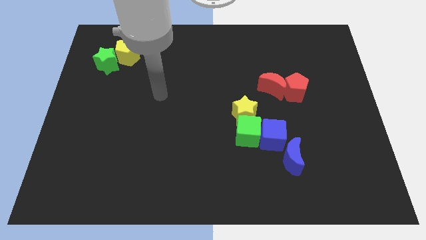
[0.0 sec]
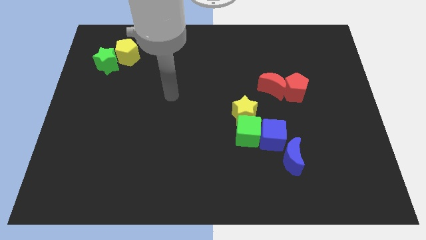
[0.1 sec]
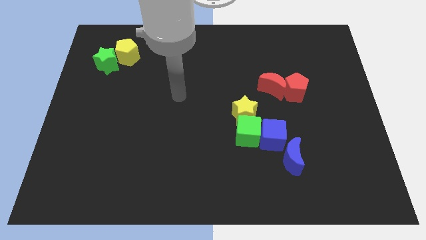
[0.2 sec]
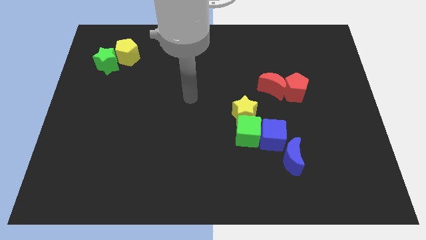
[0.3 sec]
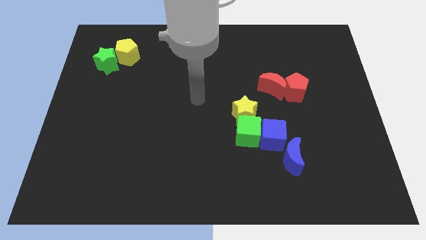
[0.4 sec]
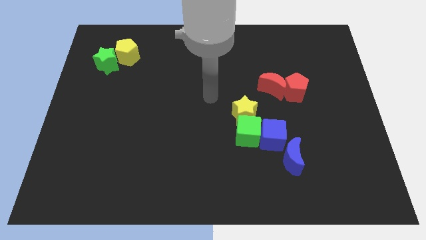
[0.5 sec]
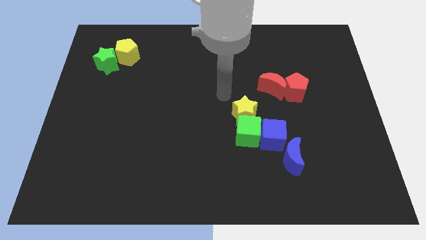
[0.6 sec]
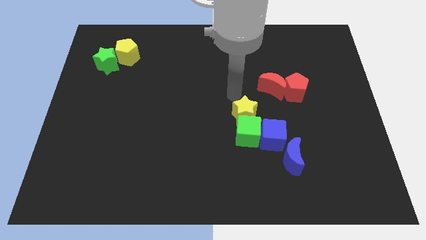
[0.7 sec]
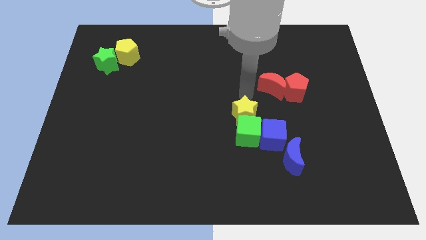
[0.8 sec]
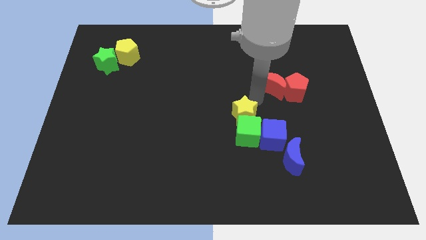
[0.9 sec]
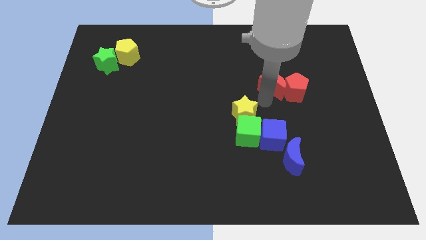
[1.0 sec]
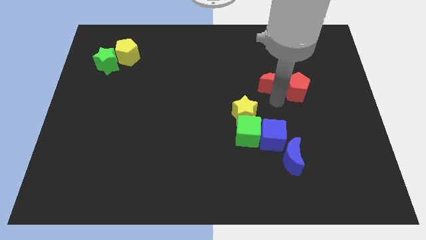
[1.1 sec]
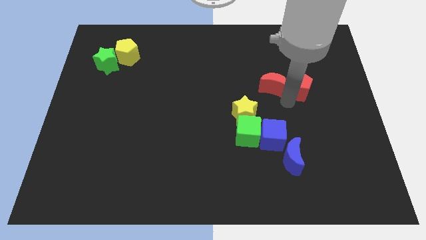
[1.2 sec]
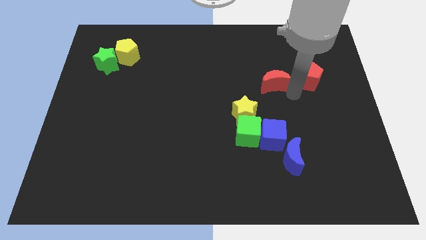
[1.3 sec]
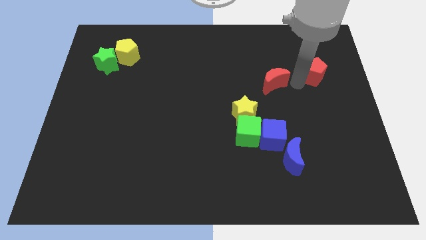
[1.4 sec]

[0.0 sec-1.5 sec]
pull the red moon apart from the red pentagon

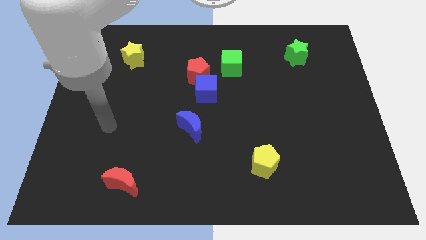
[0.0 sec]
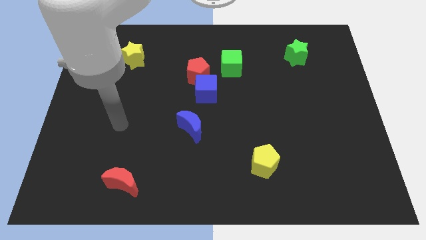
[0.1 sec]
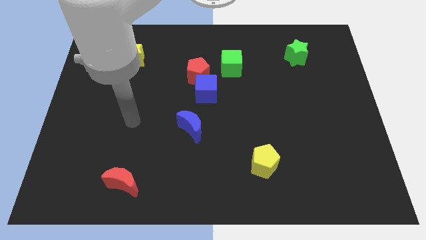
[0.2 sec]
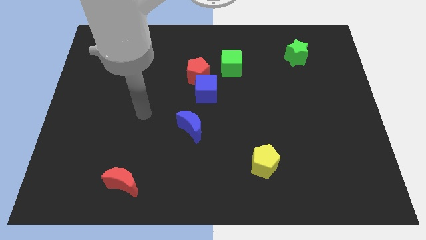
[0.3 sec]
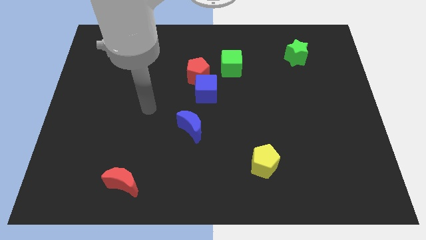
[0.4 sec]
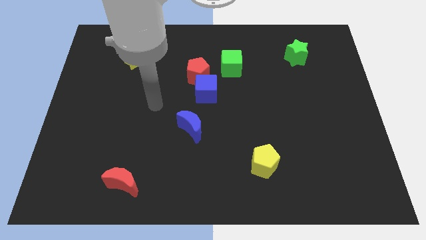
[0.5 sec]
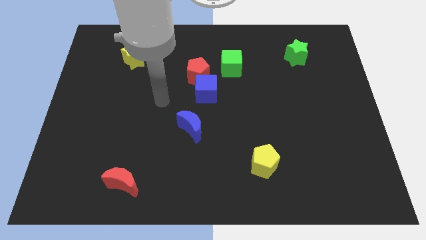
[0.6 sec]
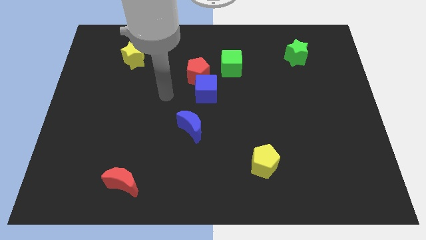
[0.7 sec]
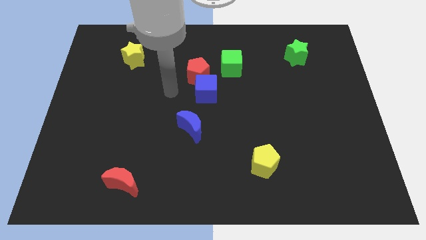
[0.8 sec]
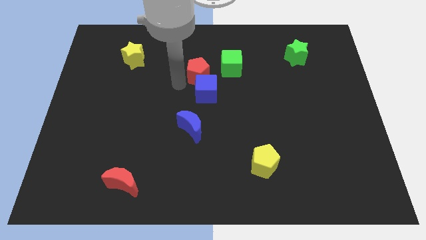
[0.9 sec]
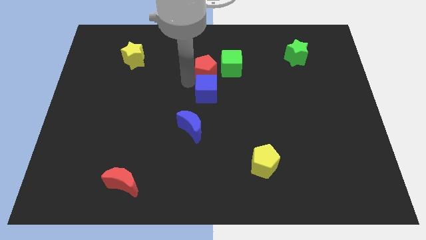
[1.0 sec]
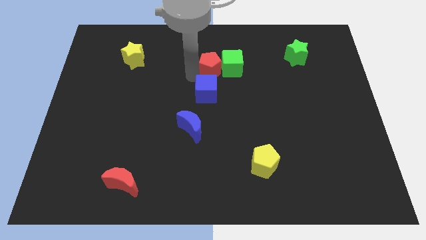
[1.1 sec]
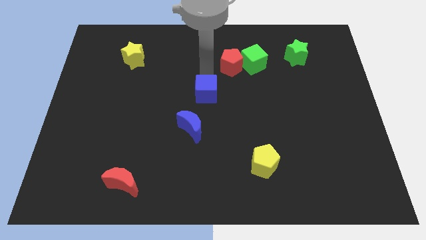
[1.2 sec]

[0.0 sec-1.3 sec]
move the blue cube away from the red pentagon

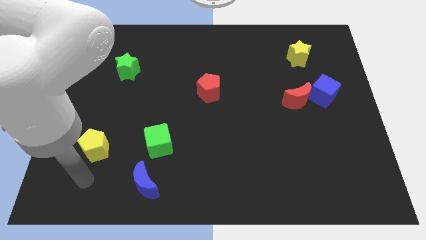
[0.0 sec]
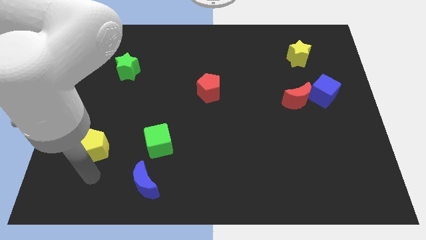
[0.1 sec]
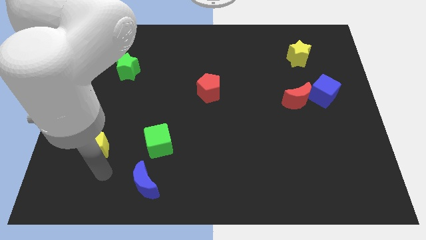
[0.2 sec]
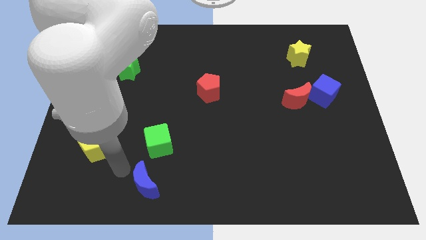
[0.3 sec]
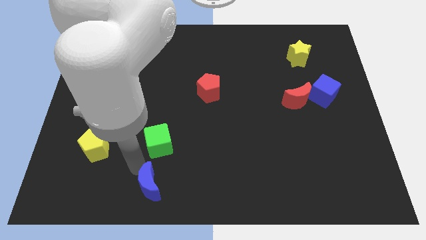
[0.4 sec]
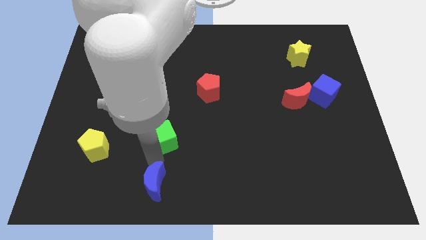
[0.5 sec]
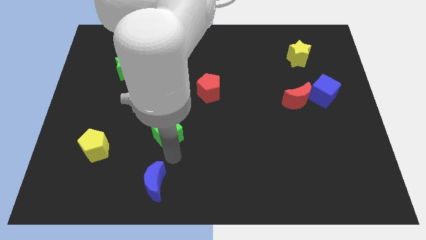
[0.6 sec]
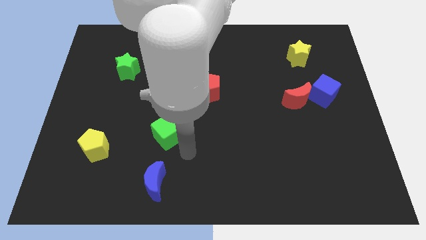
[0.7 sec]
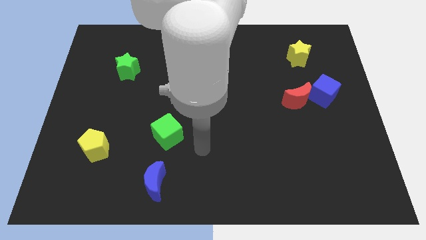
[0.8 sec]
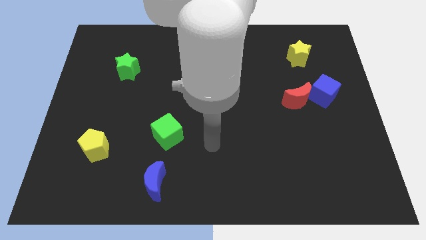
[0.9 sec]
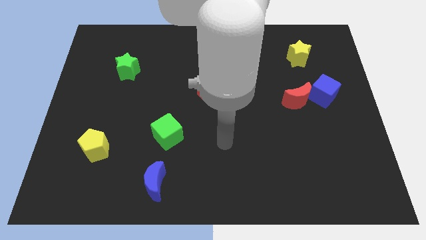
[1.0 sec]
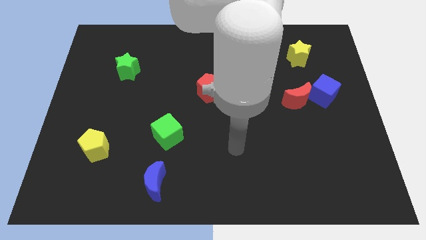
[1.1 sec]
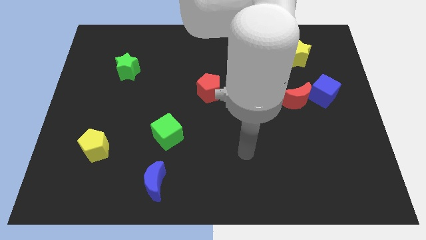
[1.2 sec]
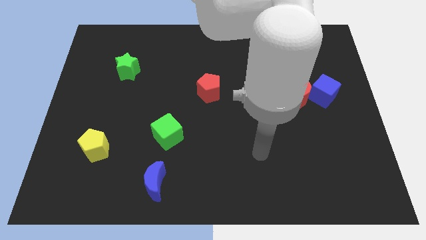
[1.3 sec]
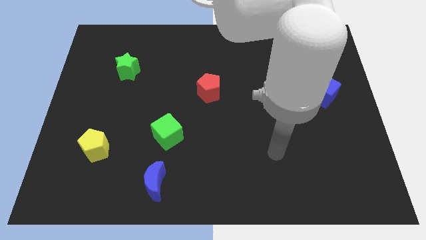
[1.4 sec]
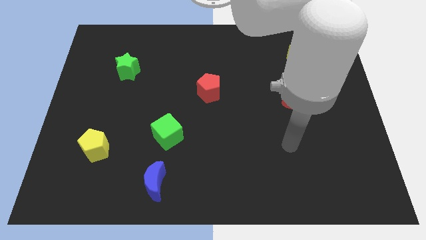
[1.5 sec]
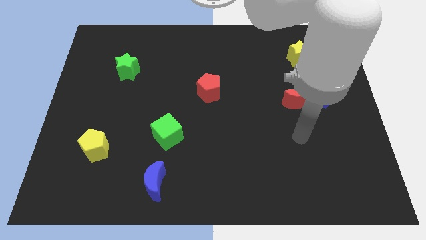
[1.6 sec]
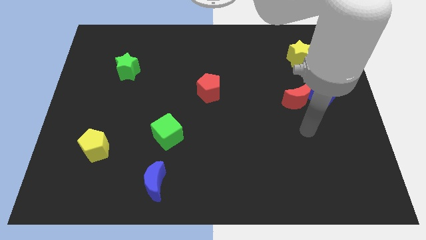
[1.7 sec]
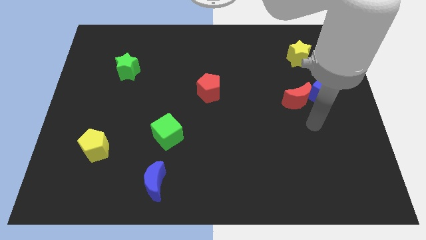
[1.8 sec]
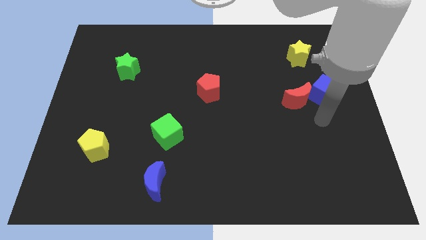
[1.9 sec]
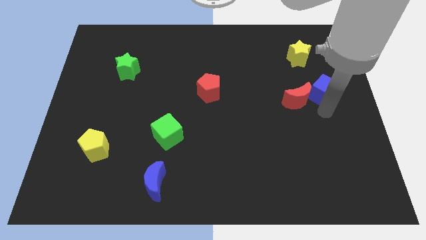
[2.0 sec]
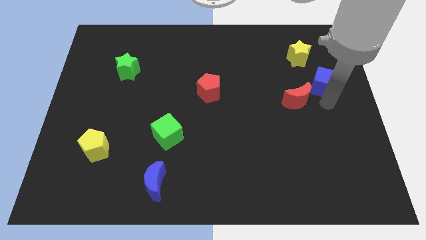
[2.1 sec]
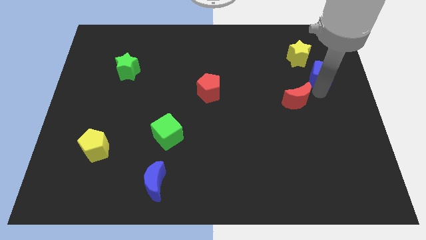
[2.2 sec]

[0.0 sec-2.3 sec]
separate the red moon from the blue cube

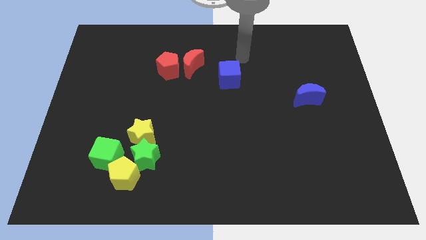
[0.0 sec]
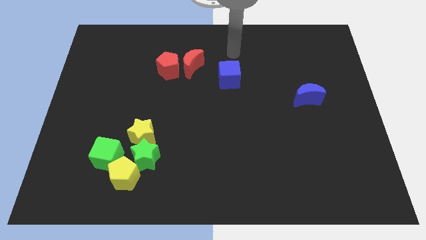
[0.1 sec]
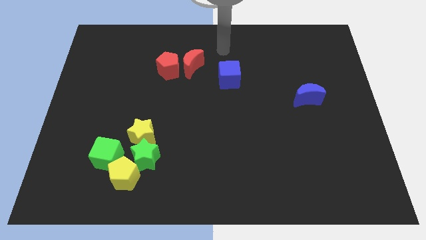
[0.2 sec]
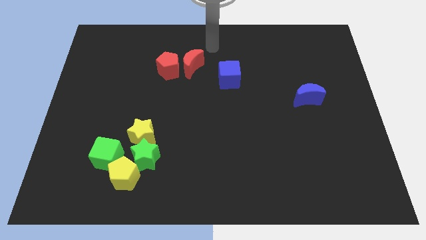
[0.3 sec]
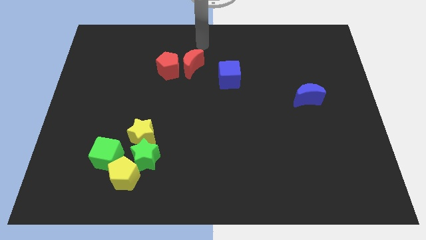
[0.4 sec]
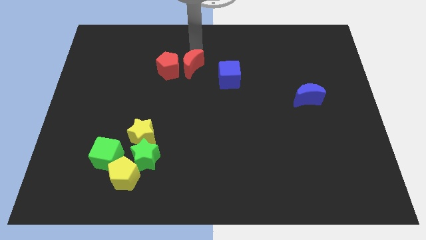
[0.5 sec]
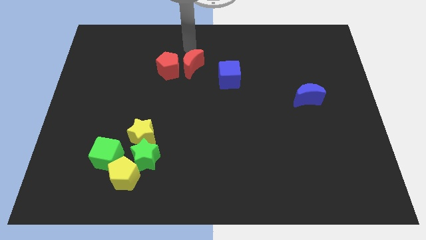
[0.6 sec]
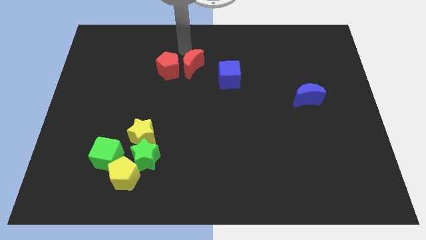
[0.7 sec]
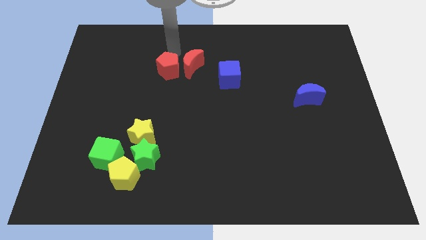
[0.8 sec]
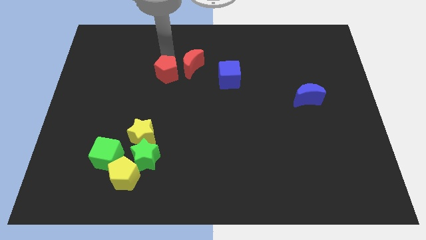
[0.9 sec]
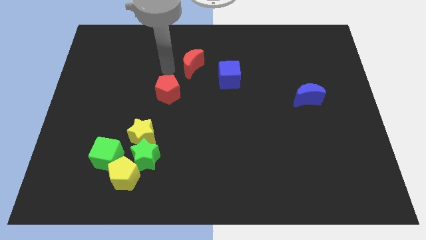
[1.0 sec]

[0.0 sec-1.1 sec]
separate the red moon from the red pentagon

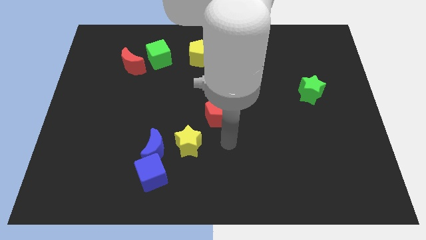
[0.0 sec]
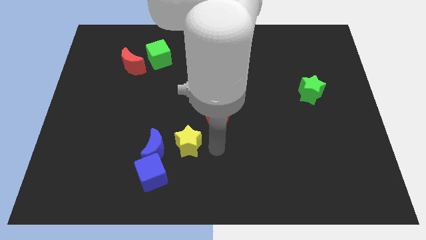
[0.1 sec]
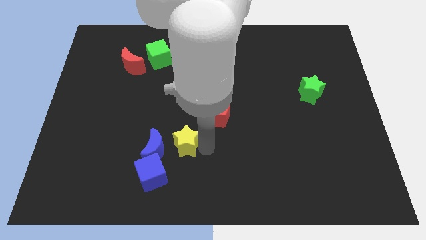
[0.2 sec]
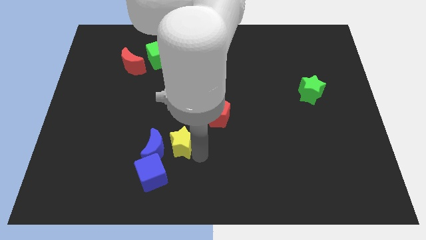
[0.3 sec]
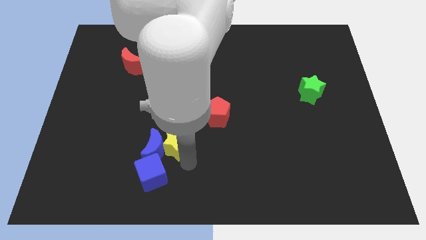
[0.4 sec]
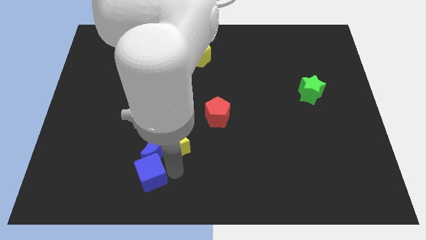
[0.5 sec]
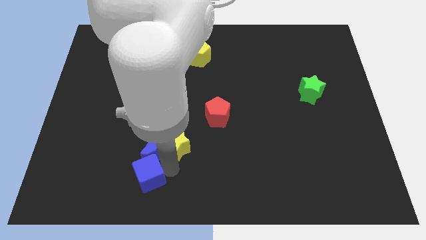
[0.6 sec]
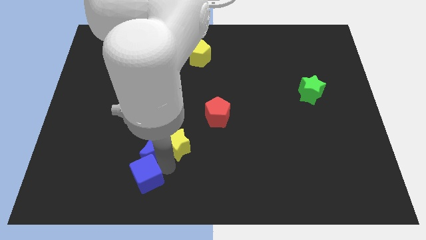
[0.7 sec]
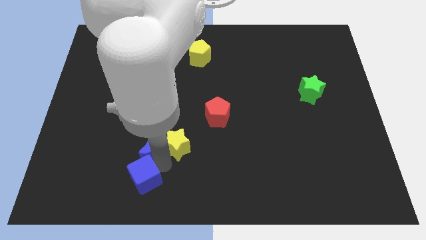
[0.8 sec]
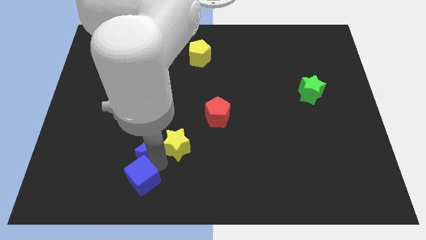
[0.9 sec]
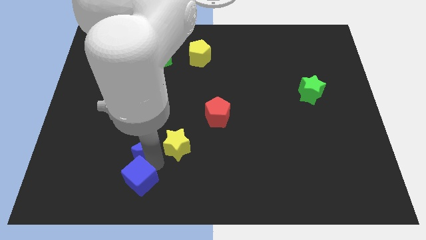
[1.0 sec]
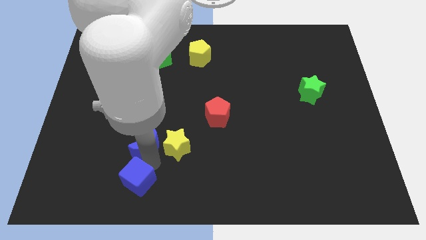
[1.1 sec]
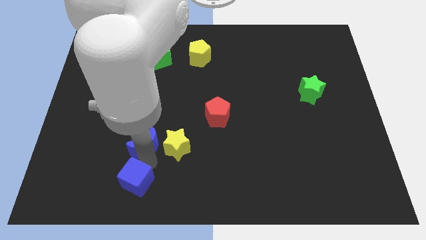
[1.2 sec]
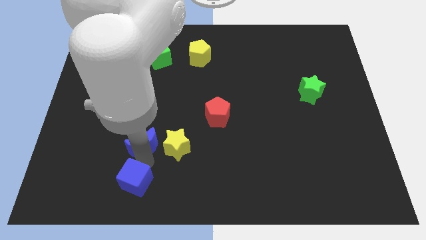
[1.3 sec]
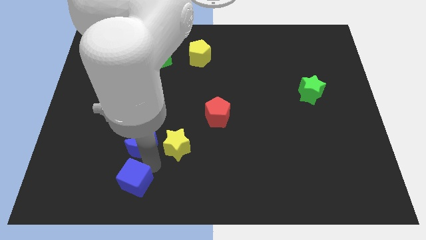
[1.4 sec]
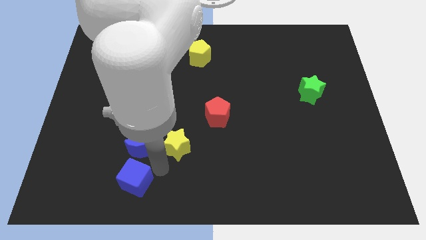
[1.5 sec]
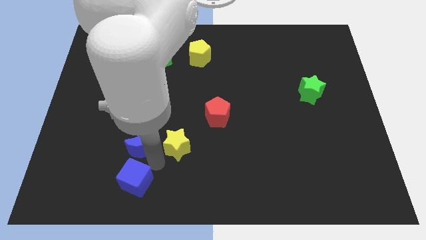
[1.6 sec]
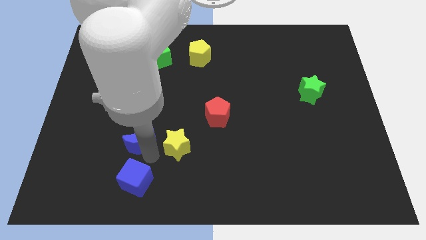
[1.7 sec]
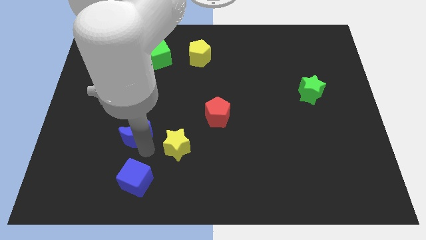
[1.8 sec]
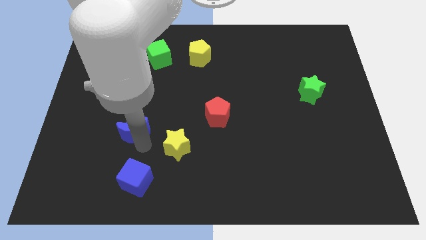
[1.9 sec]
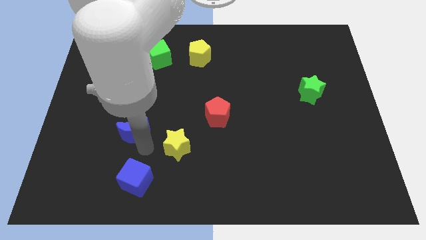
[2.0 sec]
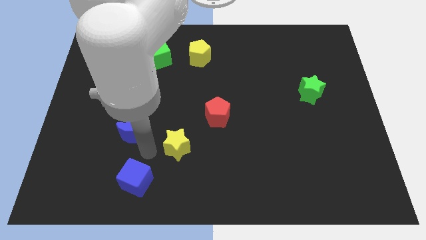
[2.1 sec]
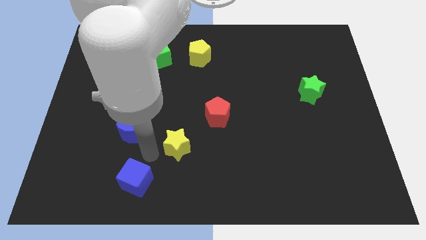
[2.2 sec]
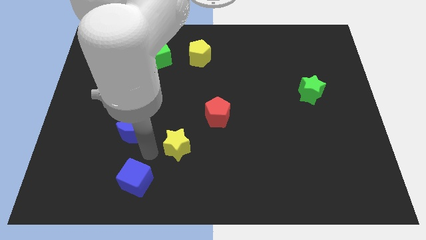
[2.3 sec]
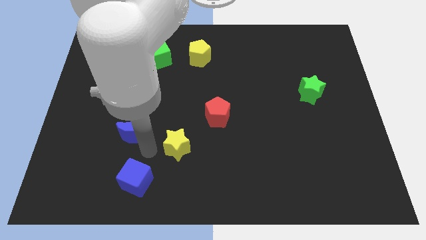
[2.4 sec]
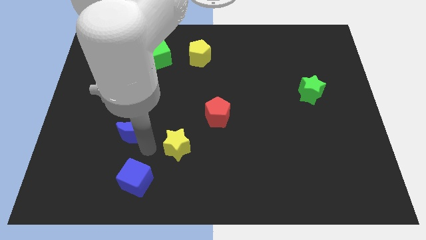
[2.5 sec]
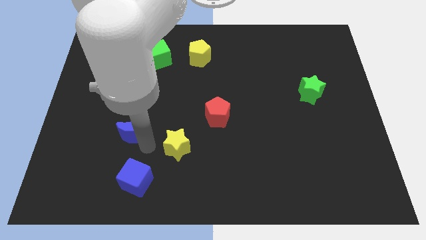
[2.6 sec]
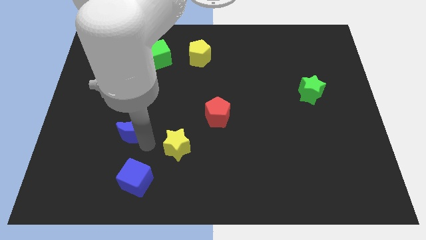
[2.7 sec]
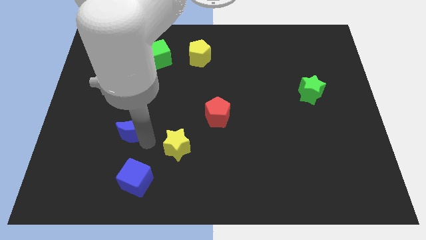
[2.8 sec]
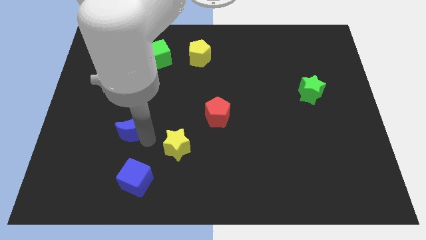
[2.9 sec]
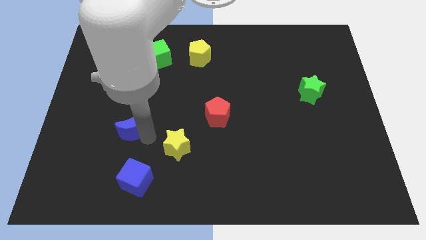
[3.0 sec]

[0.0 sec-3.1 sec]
pull the blue moon apart from the blue cube and yellow star

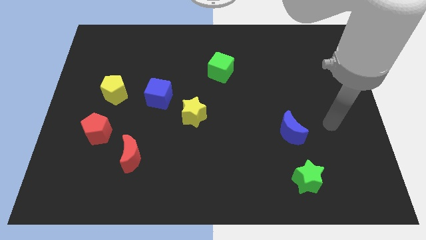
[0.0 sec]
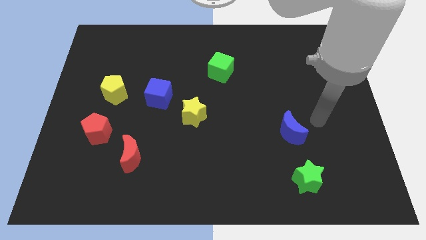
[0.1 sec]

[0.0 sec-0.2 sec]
move the blue cube away from the yellow star
